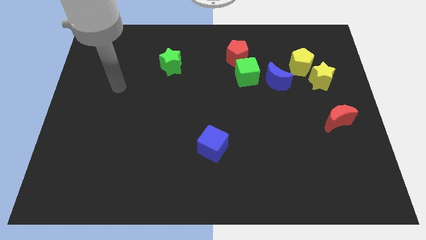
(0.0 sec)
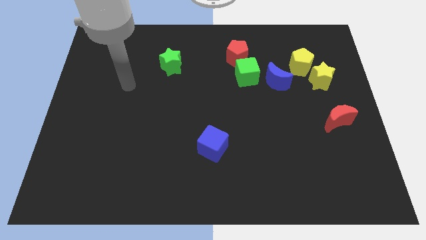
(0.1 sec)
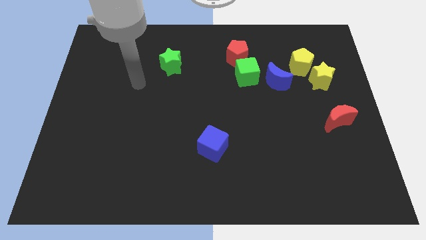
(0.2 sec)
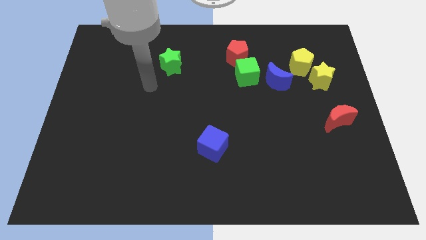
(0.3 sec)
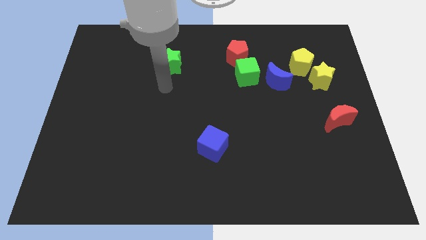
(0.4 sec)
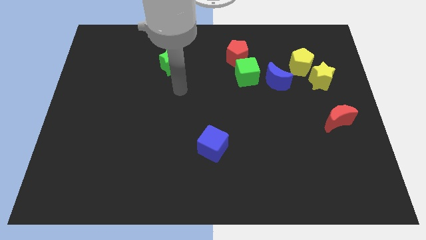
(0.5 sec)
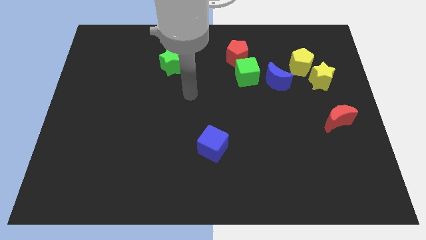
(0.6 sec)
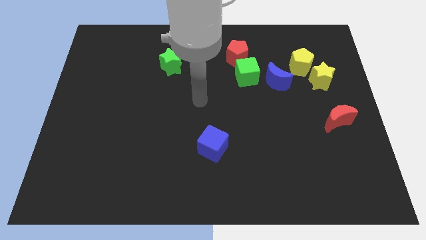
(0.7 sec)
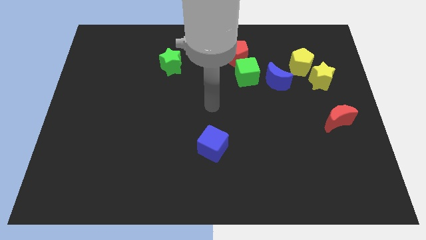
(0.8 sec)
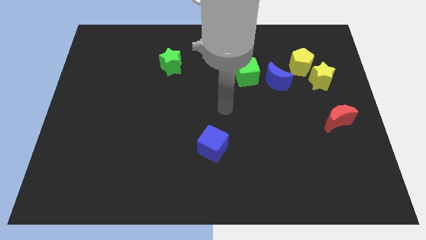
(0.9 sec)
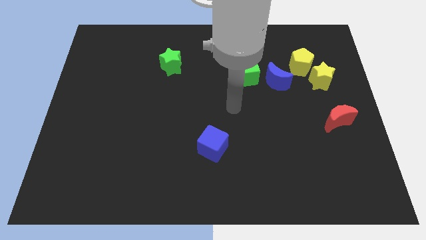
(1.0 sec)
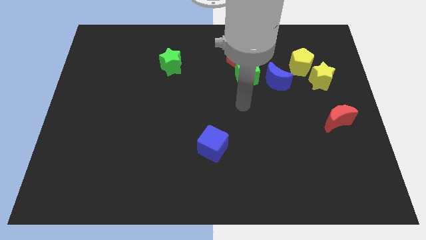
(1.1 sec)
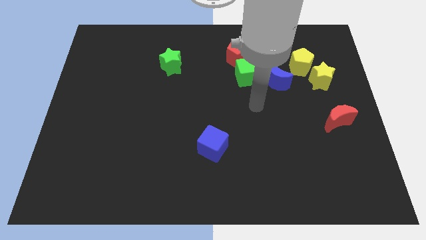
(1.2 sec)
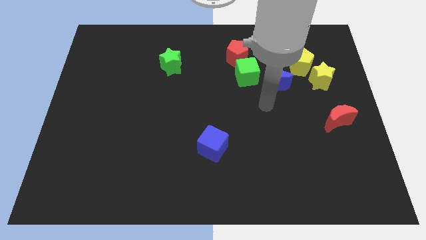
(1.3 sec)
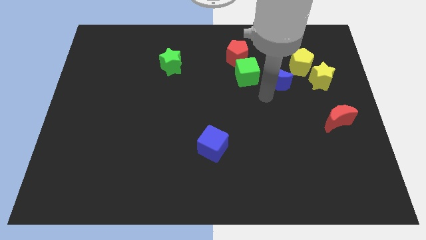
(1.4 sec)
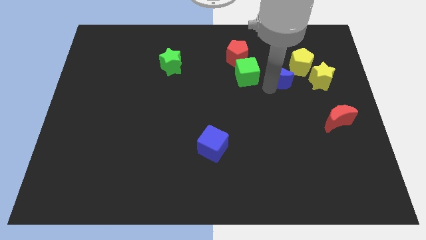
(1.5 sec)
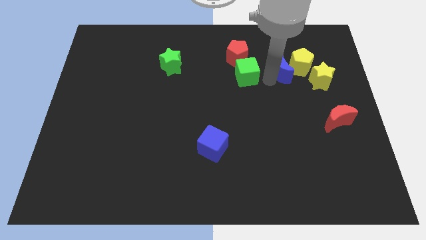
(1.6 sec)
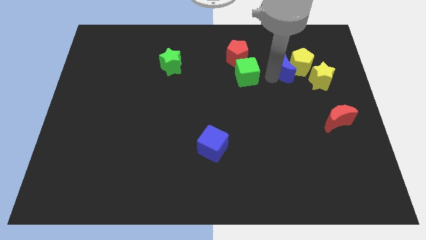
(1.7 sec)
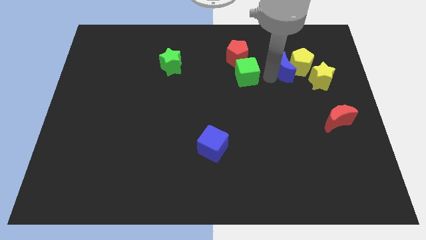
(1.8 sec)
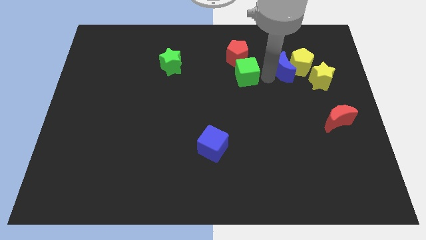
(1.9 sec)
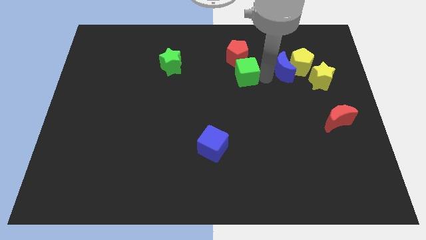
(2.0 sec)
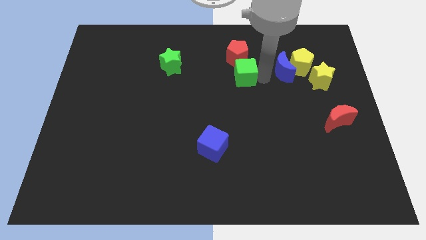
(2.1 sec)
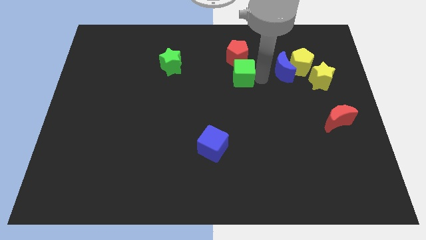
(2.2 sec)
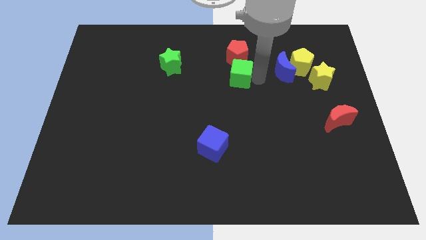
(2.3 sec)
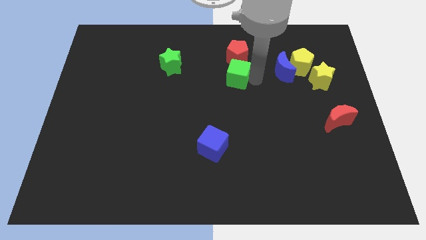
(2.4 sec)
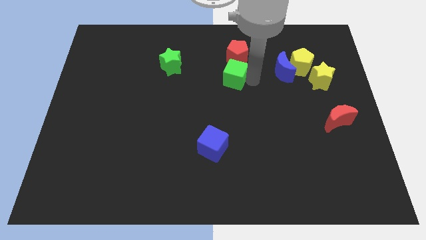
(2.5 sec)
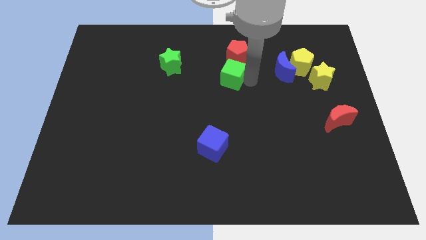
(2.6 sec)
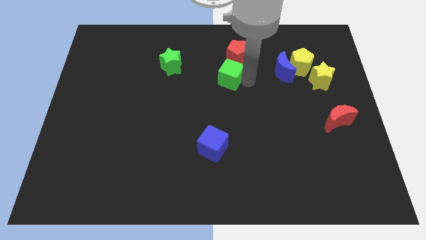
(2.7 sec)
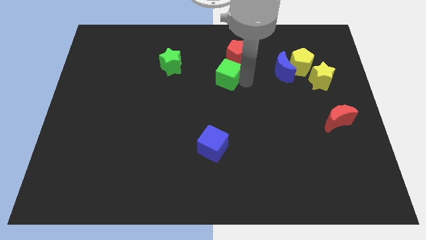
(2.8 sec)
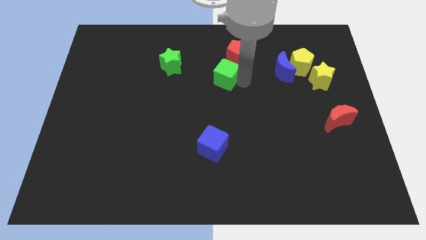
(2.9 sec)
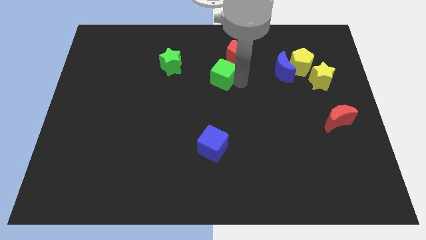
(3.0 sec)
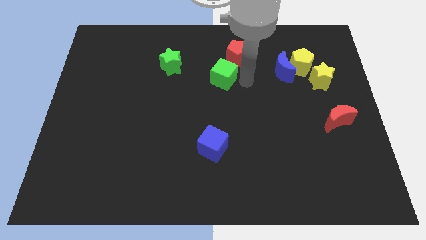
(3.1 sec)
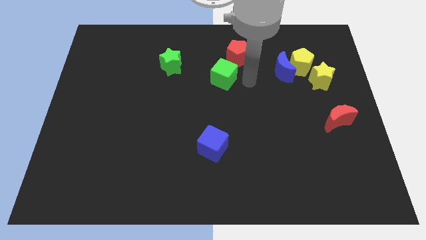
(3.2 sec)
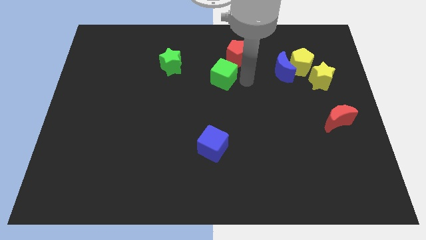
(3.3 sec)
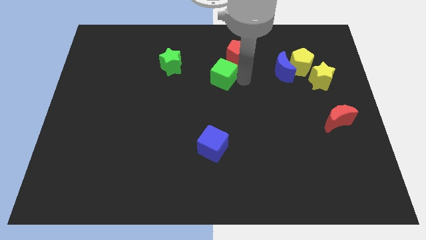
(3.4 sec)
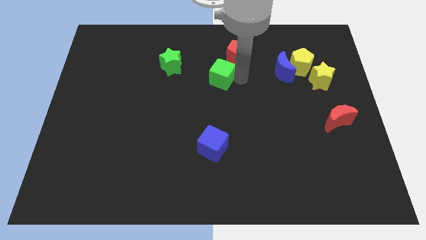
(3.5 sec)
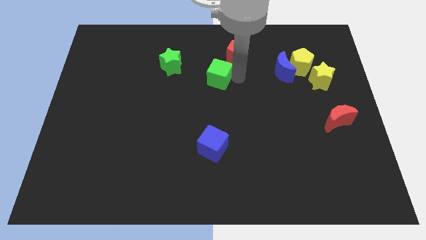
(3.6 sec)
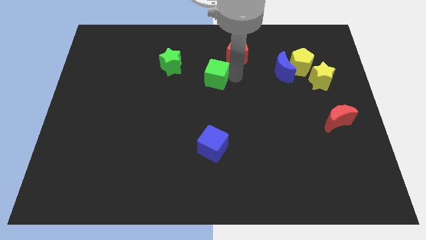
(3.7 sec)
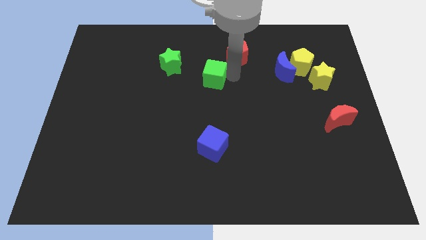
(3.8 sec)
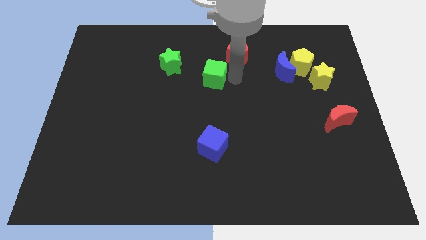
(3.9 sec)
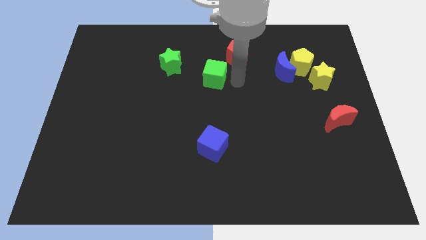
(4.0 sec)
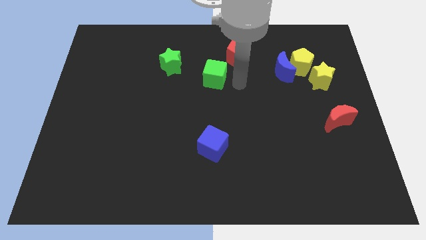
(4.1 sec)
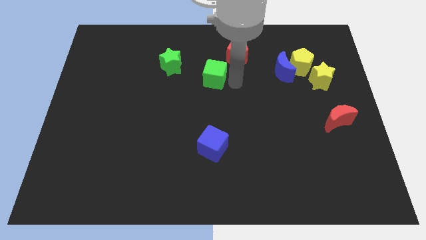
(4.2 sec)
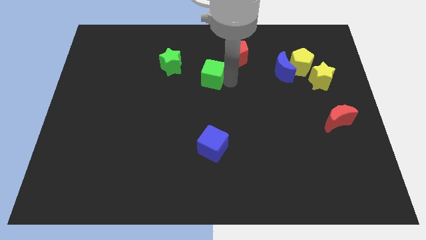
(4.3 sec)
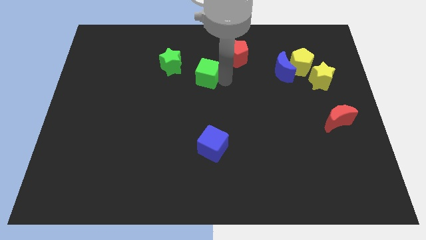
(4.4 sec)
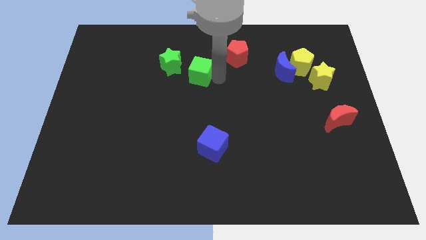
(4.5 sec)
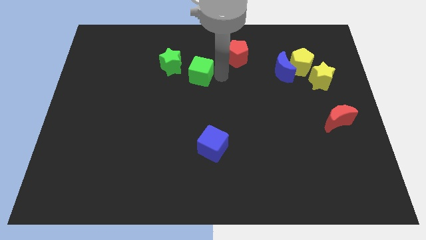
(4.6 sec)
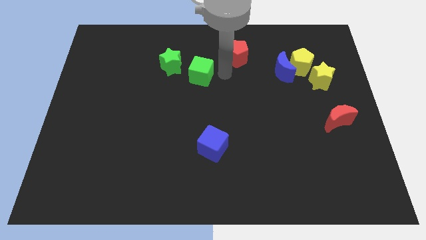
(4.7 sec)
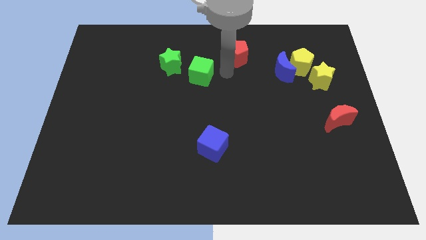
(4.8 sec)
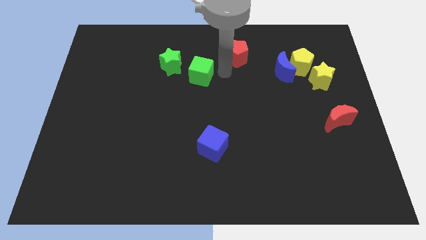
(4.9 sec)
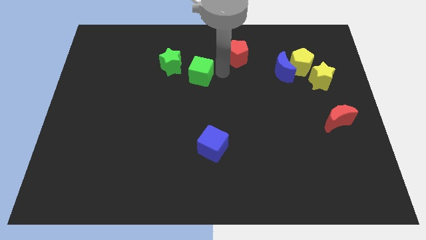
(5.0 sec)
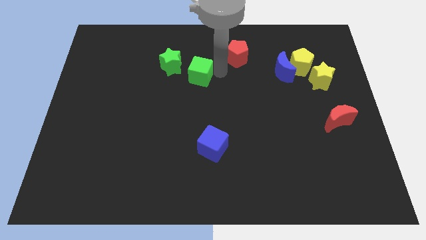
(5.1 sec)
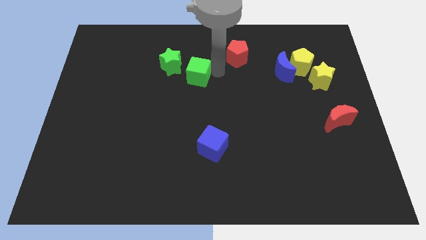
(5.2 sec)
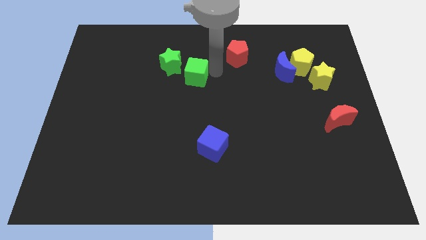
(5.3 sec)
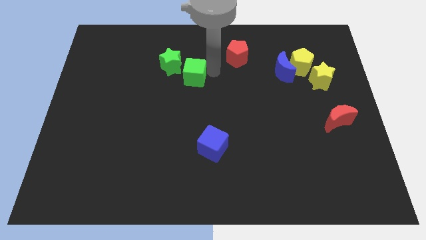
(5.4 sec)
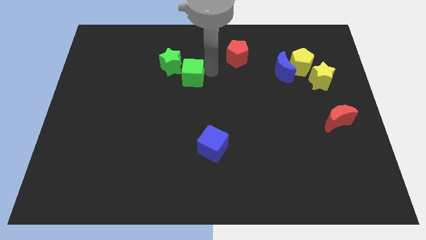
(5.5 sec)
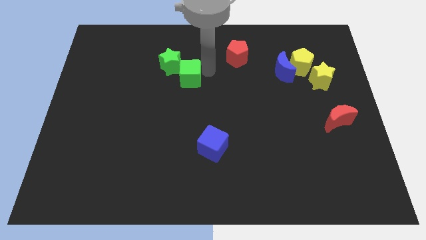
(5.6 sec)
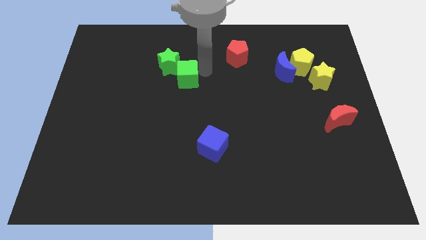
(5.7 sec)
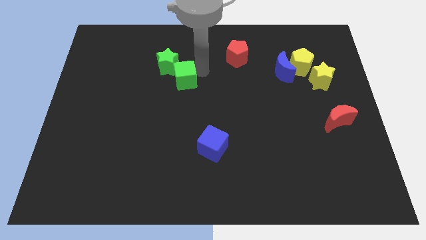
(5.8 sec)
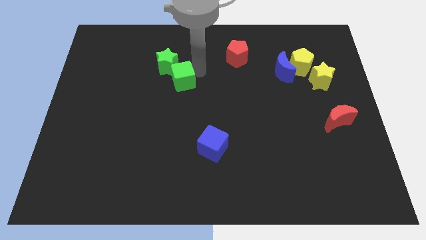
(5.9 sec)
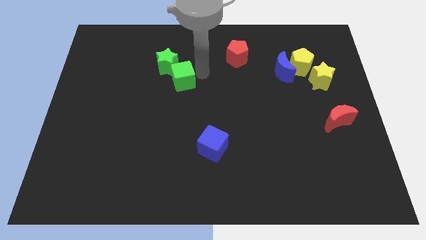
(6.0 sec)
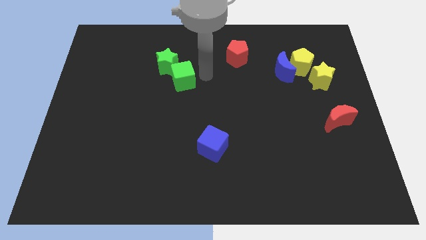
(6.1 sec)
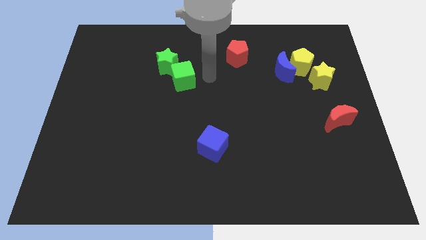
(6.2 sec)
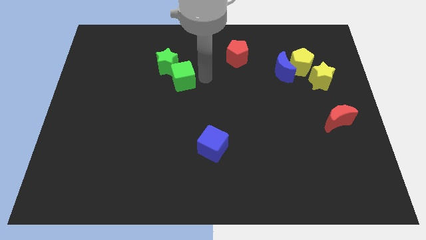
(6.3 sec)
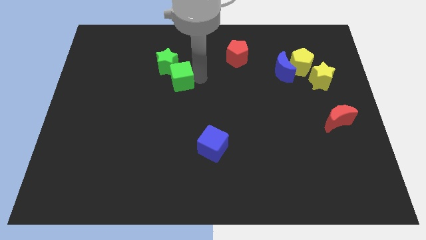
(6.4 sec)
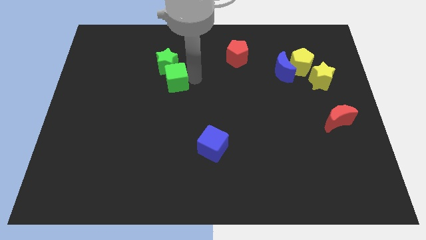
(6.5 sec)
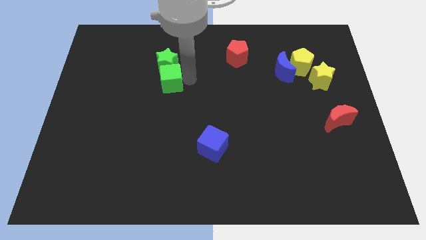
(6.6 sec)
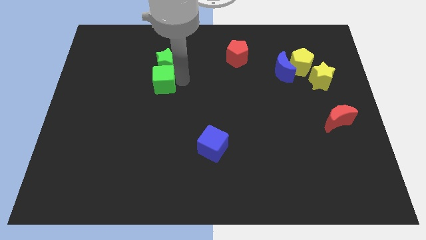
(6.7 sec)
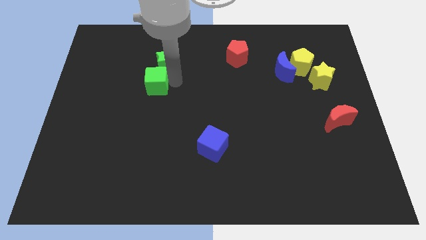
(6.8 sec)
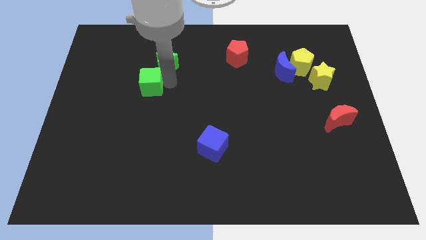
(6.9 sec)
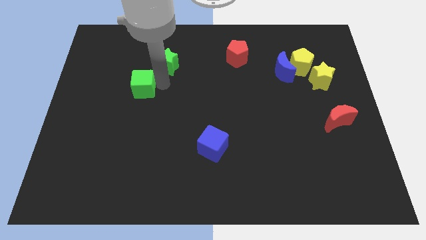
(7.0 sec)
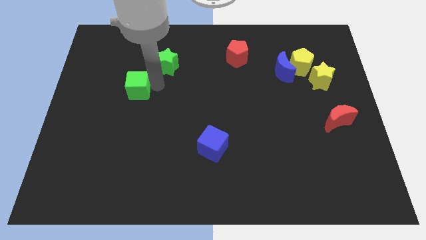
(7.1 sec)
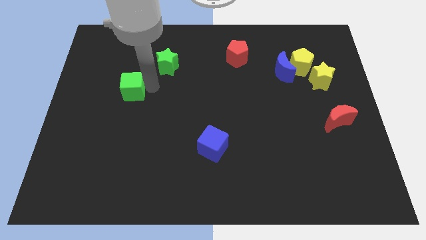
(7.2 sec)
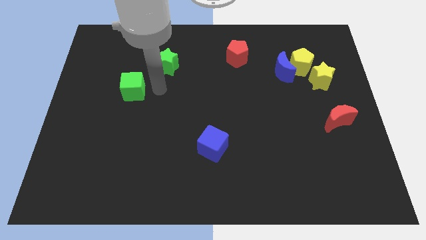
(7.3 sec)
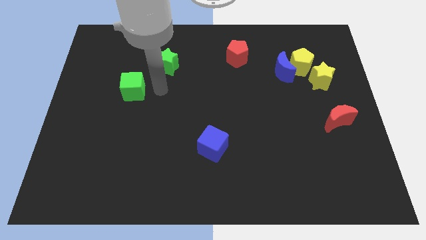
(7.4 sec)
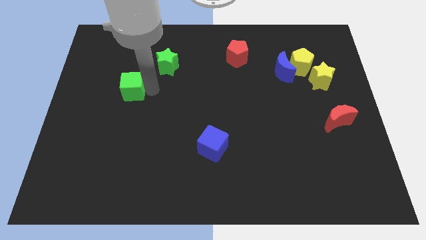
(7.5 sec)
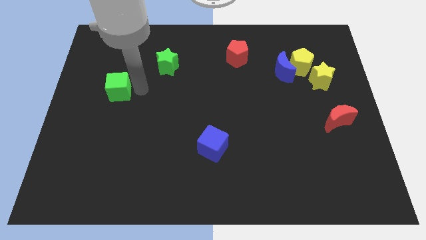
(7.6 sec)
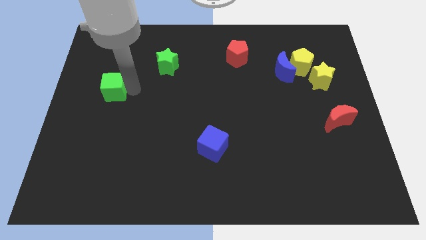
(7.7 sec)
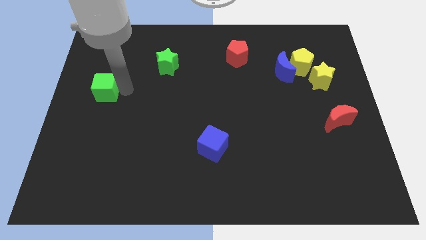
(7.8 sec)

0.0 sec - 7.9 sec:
slide the green cube to the left side
